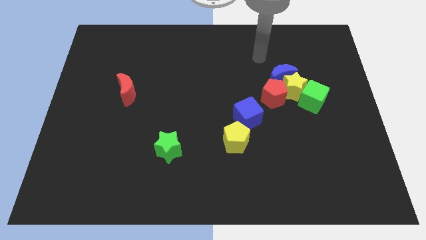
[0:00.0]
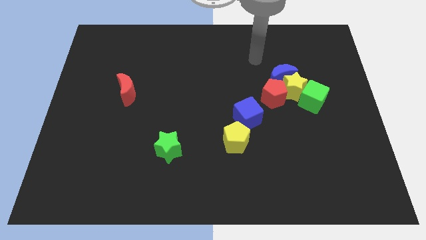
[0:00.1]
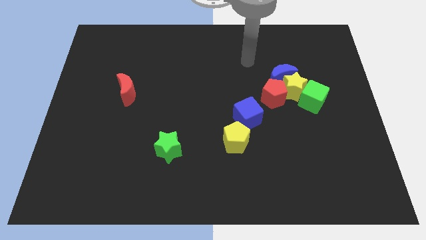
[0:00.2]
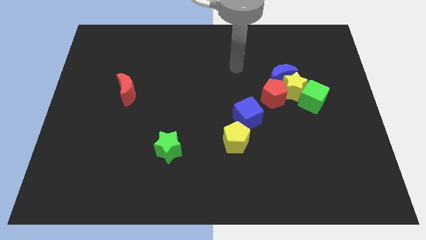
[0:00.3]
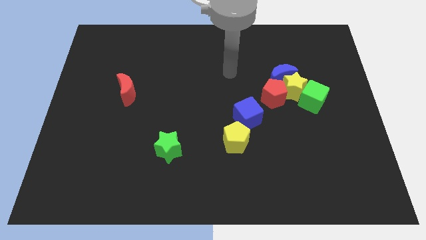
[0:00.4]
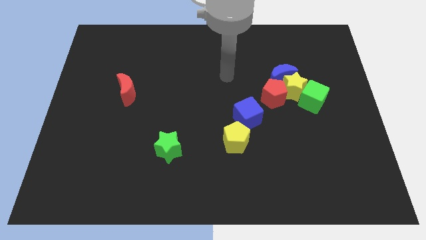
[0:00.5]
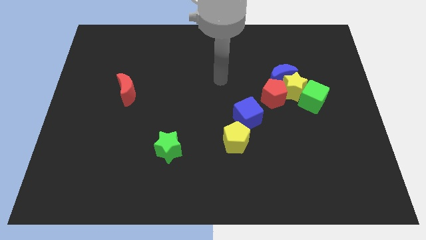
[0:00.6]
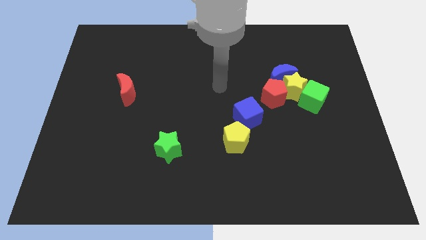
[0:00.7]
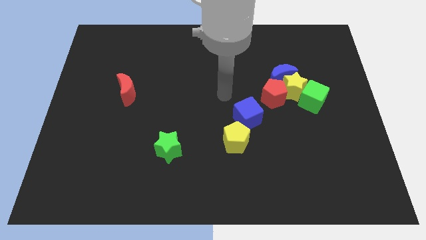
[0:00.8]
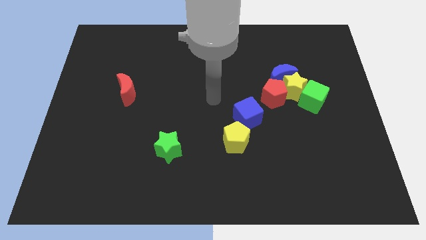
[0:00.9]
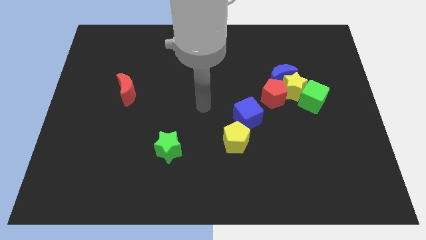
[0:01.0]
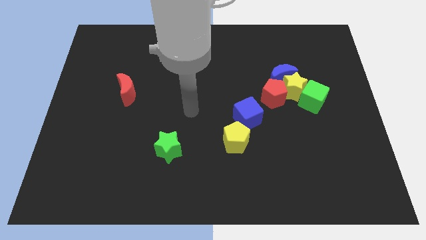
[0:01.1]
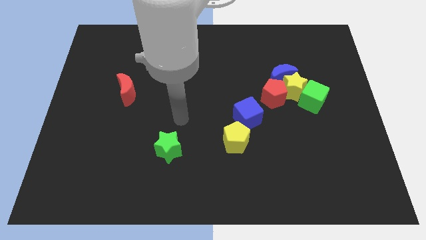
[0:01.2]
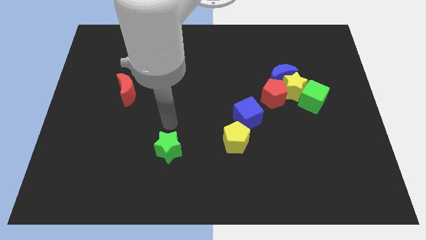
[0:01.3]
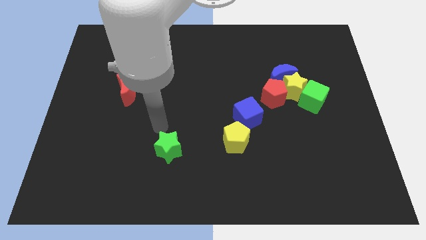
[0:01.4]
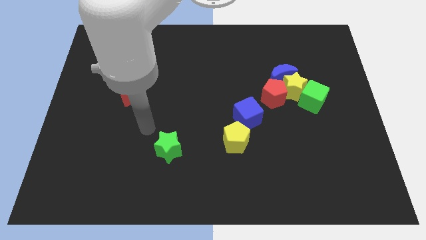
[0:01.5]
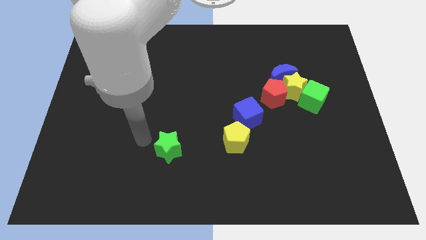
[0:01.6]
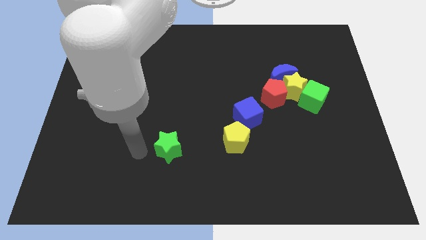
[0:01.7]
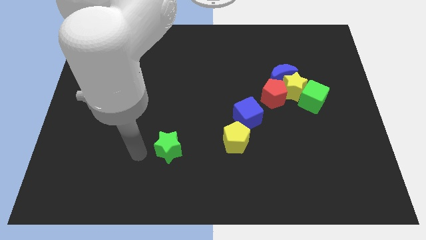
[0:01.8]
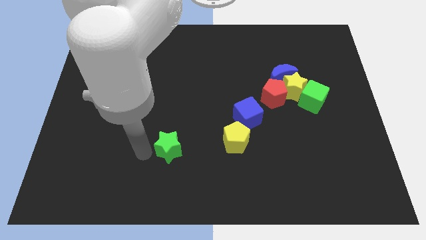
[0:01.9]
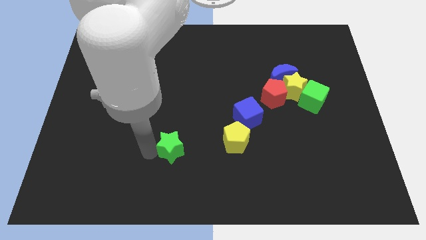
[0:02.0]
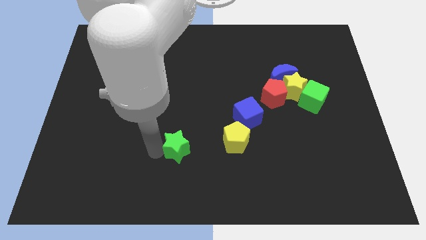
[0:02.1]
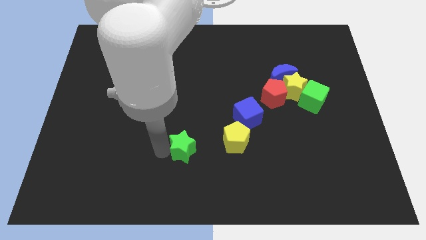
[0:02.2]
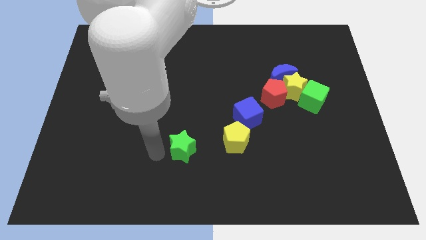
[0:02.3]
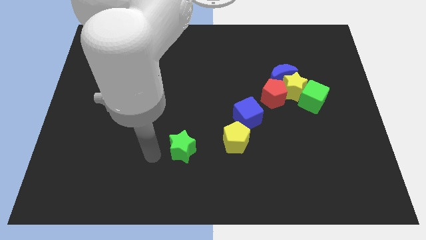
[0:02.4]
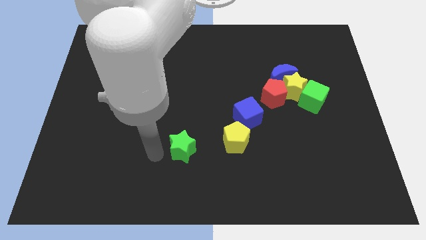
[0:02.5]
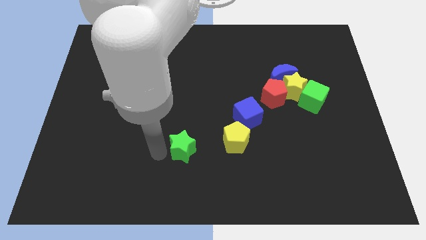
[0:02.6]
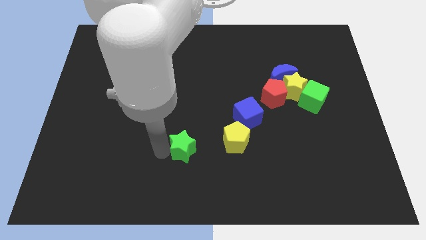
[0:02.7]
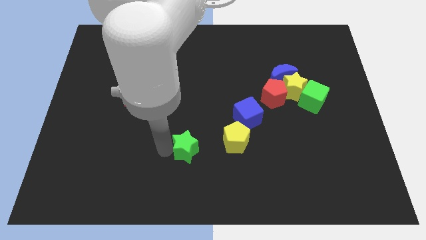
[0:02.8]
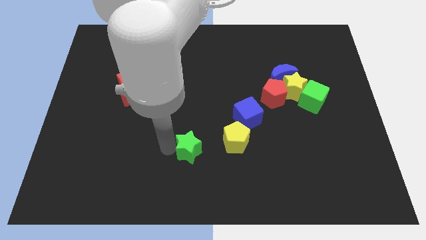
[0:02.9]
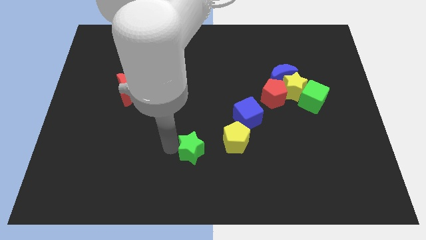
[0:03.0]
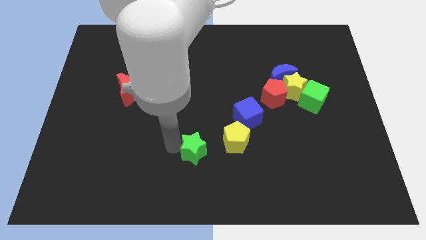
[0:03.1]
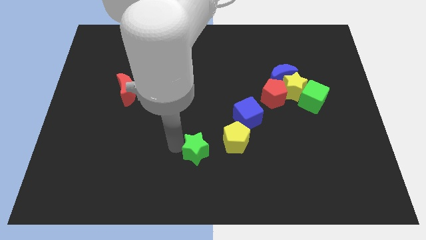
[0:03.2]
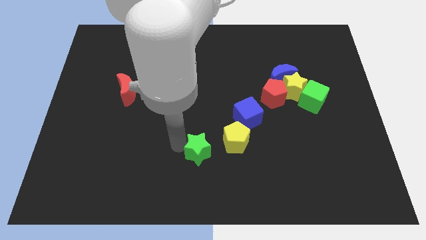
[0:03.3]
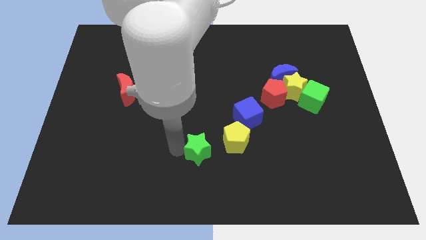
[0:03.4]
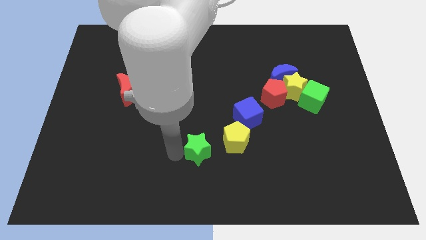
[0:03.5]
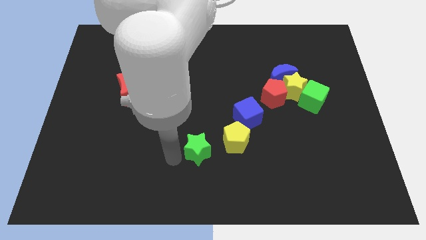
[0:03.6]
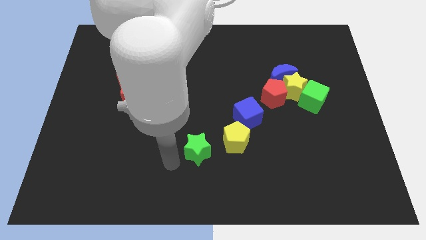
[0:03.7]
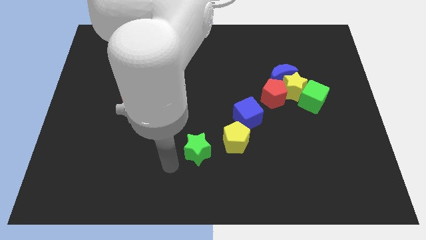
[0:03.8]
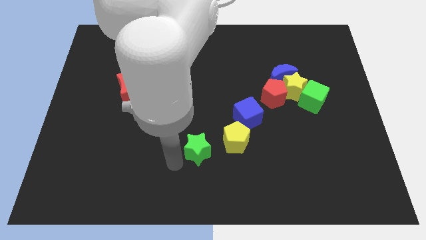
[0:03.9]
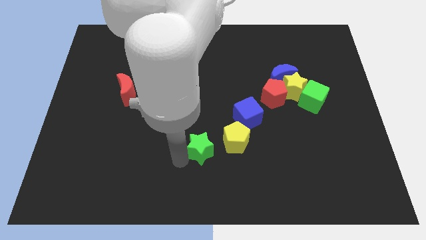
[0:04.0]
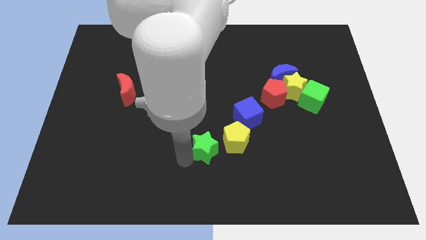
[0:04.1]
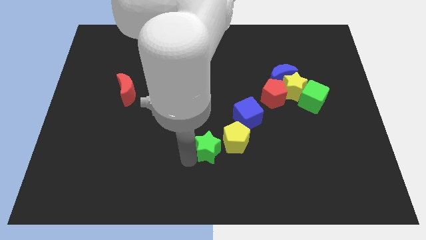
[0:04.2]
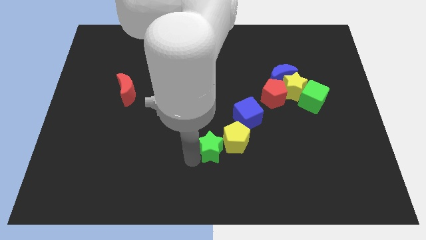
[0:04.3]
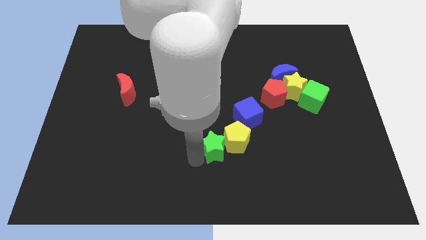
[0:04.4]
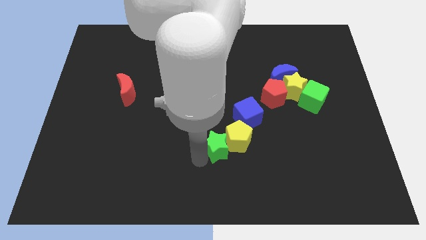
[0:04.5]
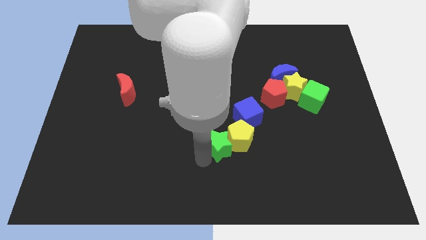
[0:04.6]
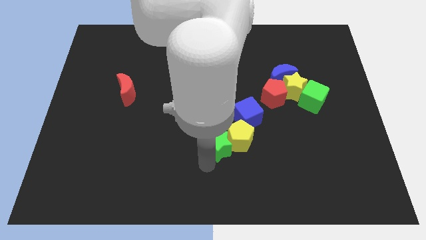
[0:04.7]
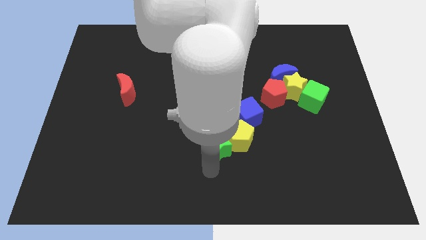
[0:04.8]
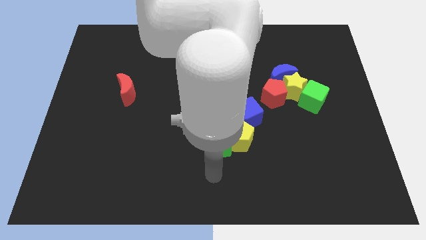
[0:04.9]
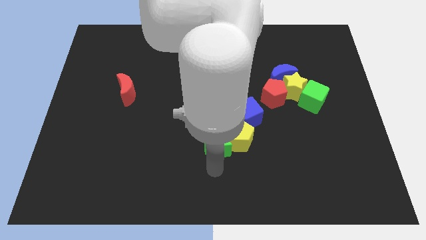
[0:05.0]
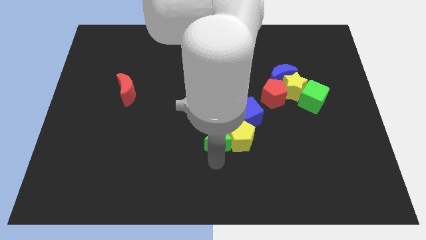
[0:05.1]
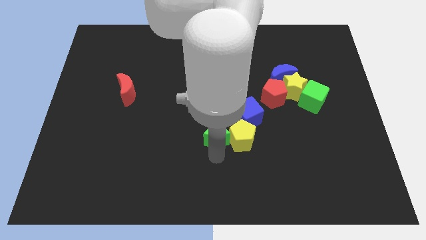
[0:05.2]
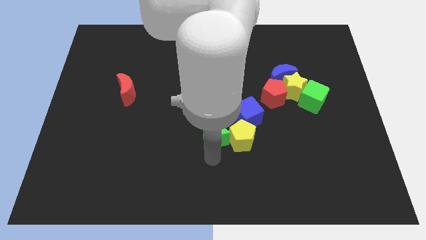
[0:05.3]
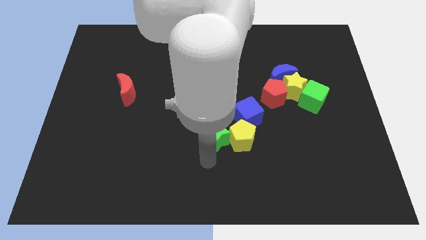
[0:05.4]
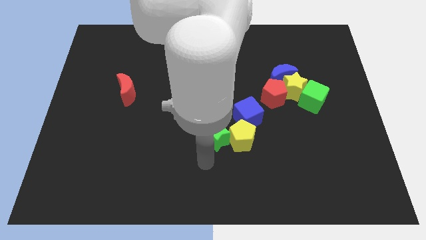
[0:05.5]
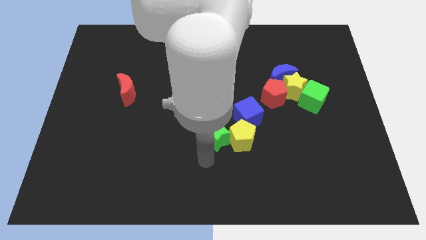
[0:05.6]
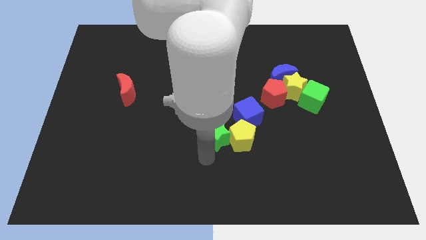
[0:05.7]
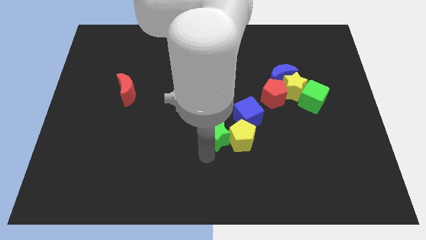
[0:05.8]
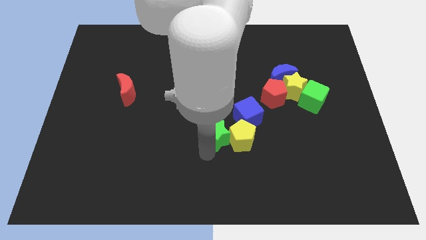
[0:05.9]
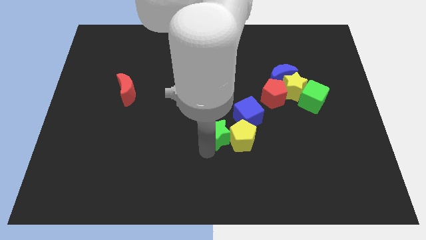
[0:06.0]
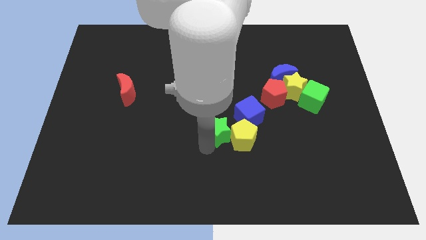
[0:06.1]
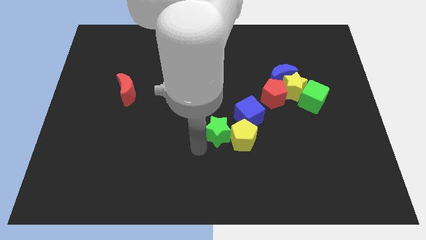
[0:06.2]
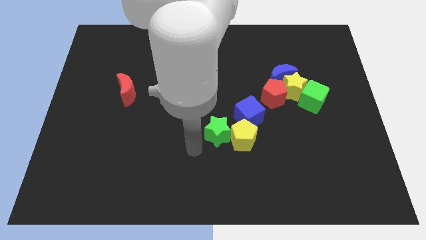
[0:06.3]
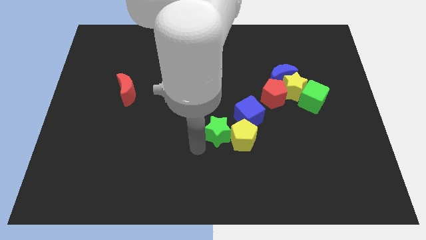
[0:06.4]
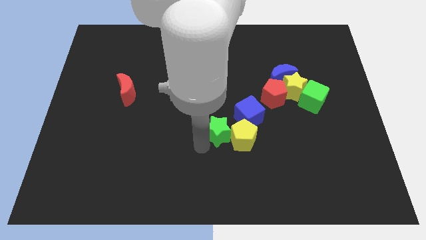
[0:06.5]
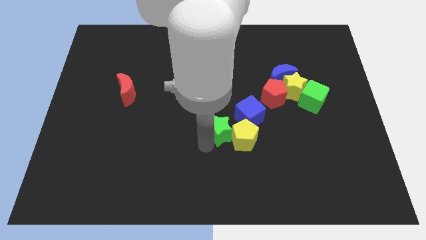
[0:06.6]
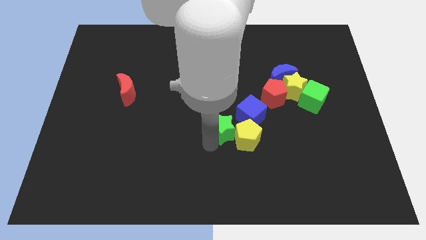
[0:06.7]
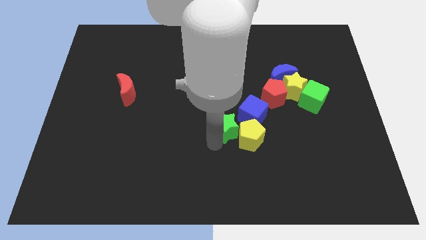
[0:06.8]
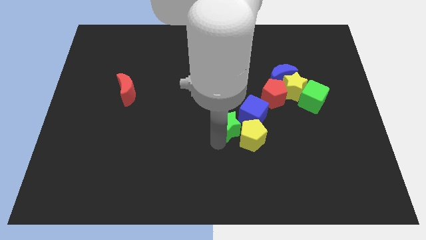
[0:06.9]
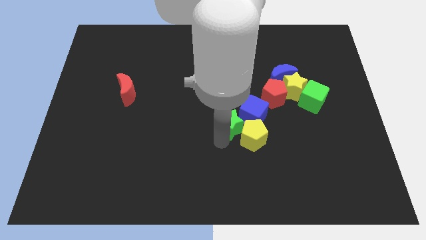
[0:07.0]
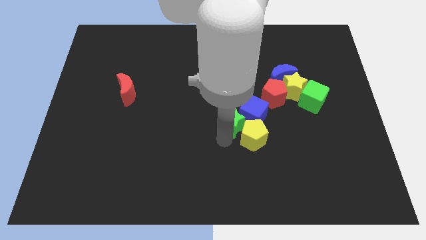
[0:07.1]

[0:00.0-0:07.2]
slide the green star next to the blue cube

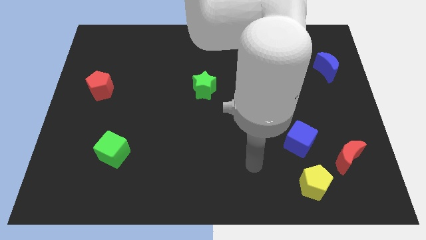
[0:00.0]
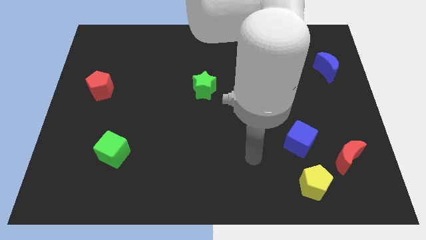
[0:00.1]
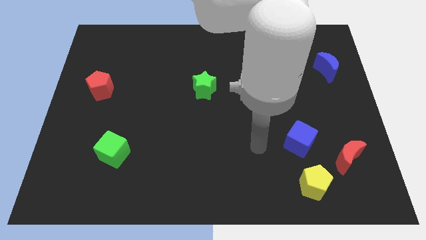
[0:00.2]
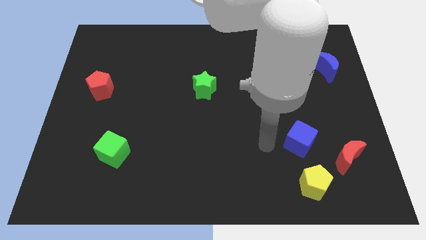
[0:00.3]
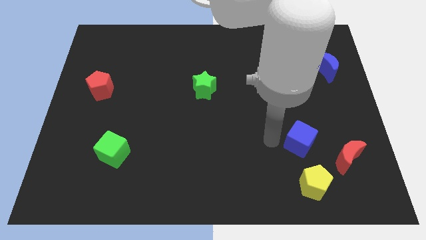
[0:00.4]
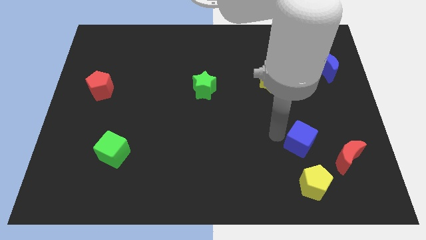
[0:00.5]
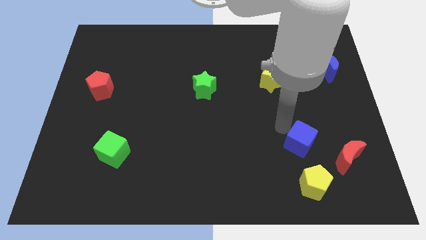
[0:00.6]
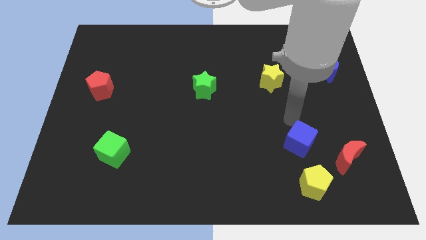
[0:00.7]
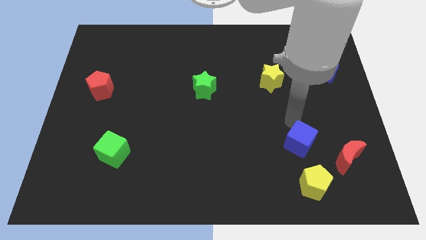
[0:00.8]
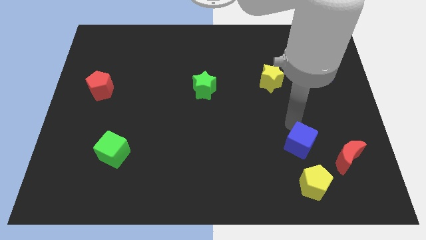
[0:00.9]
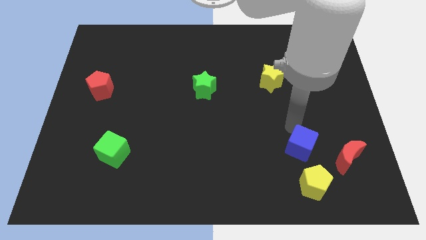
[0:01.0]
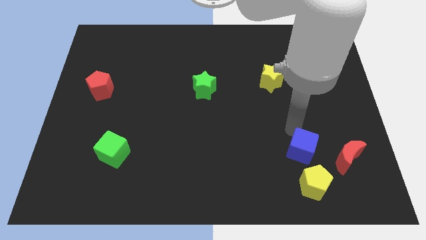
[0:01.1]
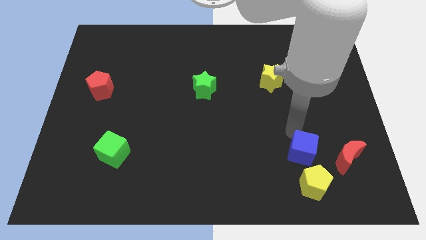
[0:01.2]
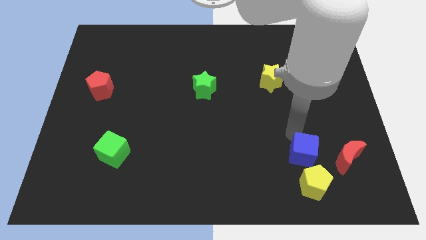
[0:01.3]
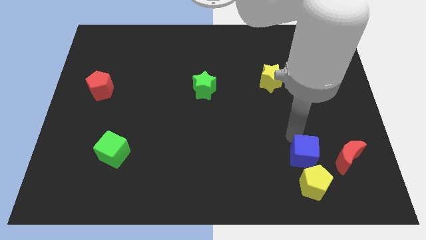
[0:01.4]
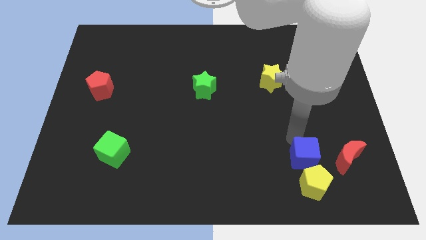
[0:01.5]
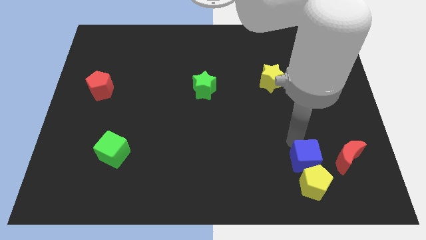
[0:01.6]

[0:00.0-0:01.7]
put the blue cube towards the yellow pentagon
